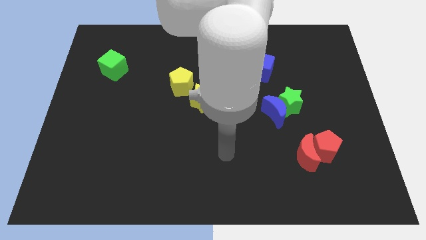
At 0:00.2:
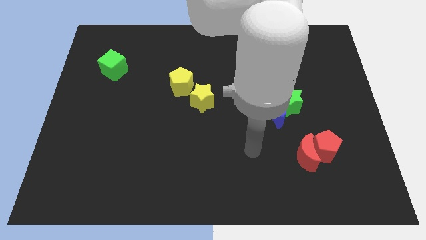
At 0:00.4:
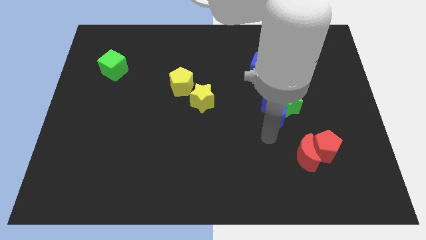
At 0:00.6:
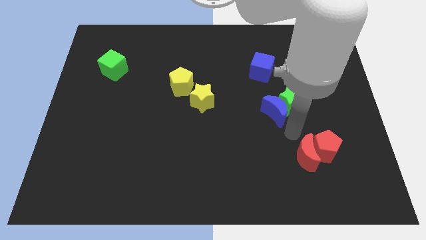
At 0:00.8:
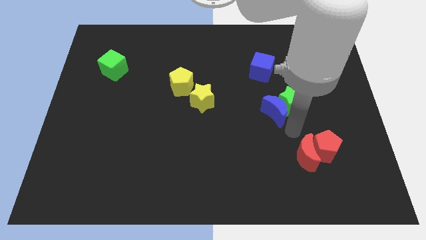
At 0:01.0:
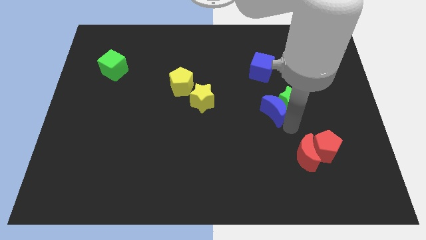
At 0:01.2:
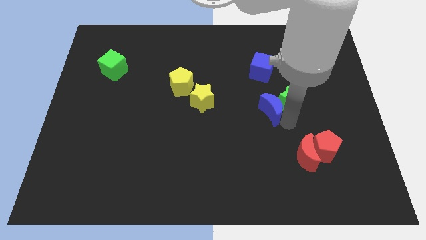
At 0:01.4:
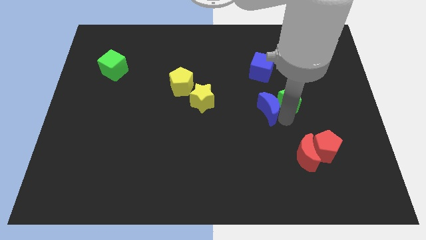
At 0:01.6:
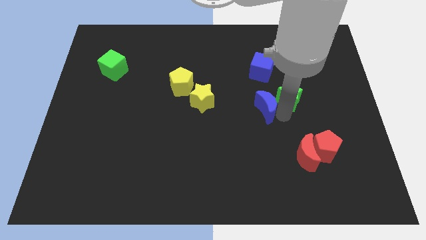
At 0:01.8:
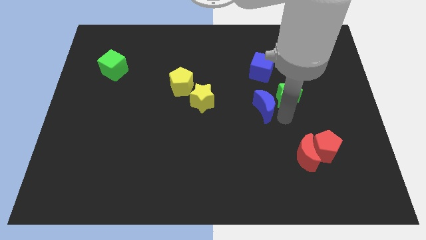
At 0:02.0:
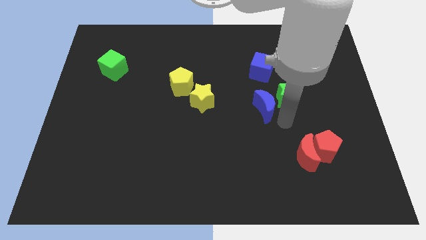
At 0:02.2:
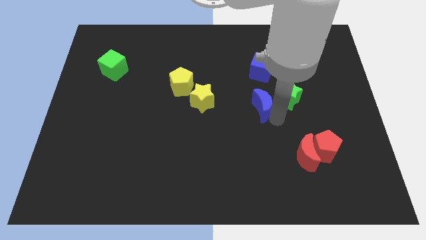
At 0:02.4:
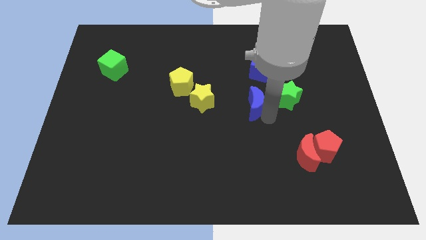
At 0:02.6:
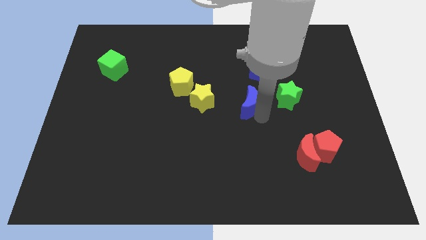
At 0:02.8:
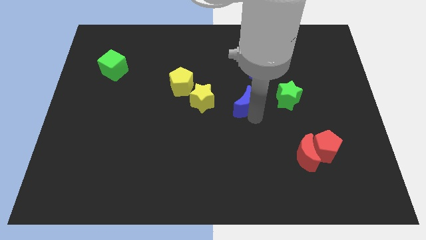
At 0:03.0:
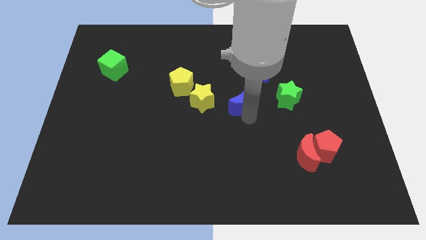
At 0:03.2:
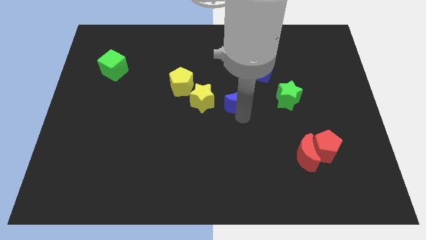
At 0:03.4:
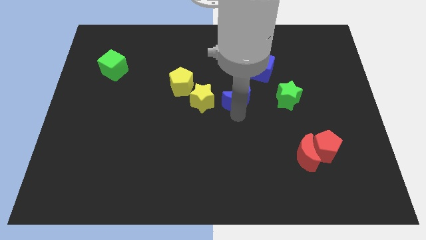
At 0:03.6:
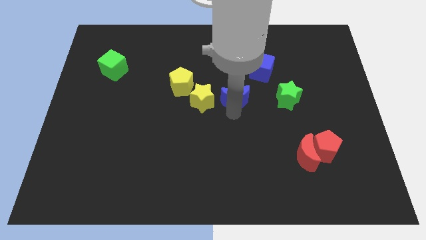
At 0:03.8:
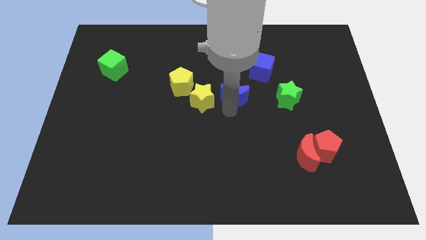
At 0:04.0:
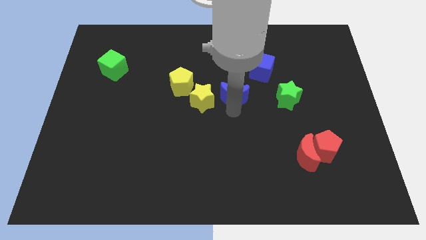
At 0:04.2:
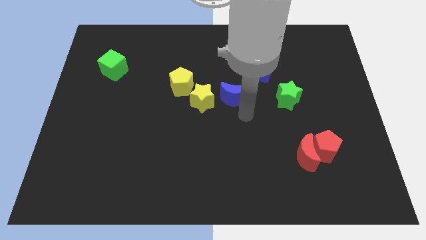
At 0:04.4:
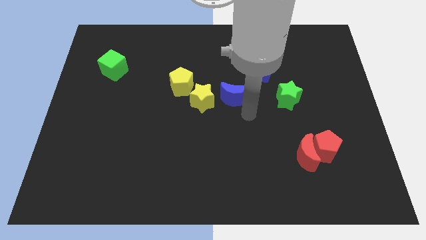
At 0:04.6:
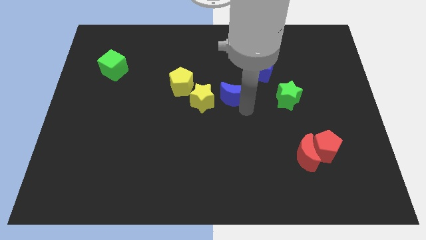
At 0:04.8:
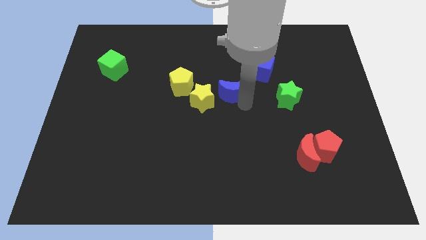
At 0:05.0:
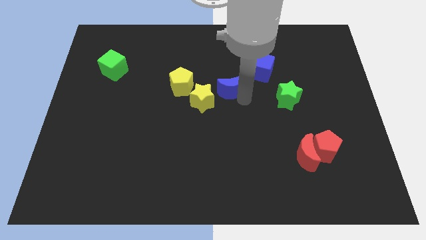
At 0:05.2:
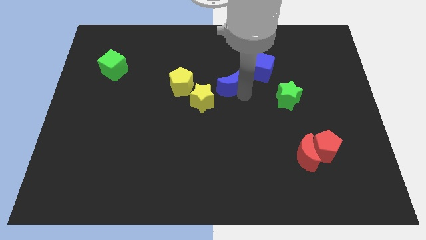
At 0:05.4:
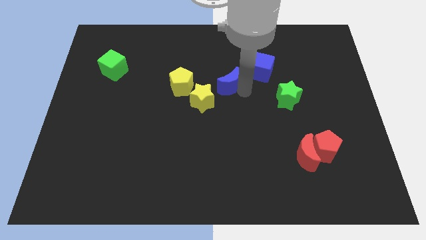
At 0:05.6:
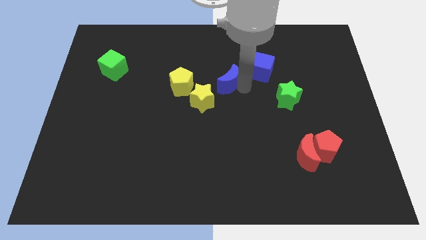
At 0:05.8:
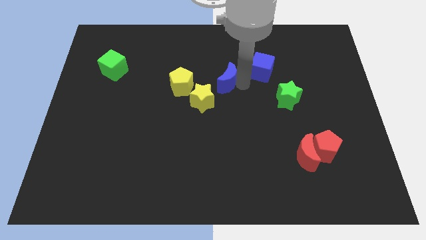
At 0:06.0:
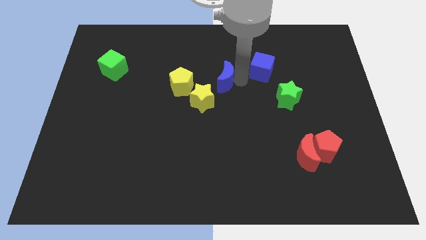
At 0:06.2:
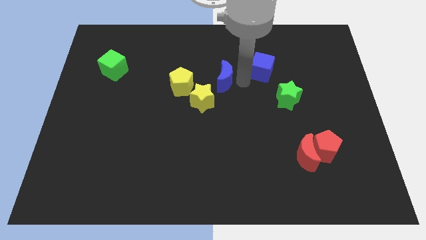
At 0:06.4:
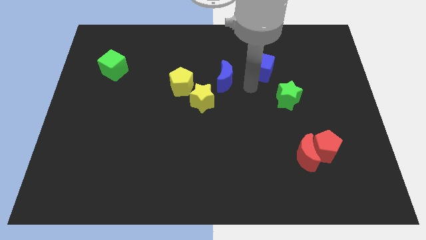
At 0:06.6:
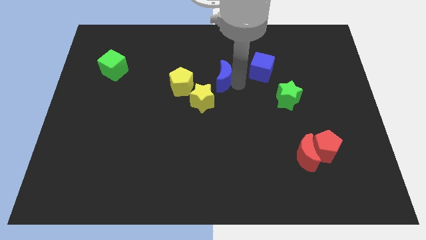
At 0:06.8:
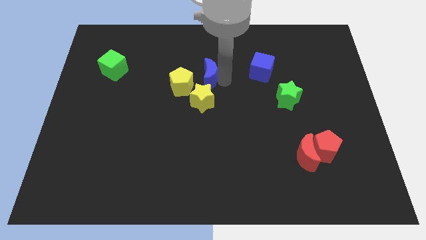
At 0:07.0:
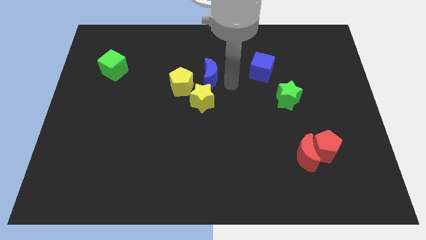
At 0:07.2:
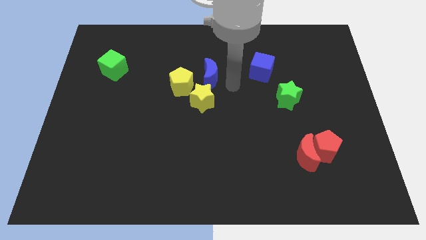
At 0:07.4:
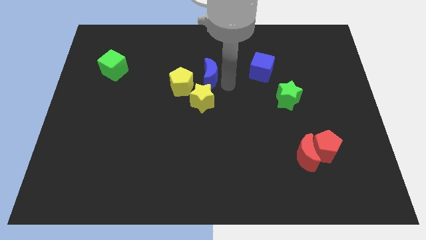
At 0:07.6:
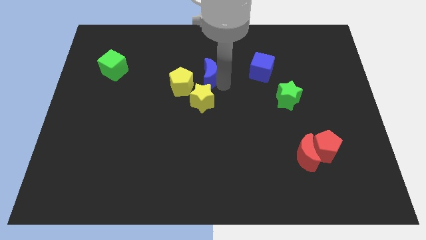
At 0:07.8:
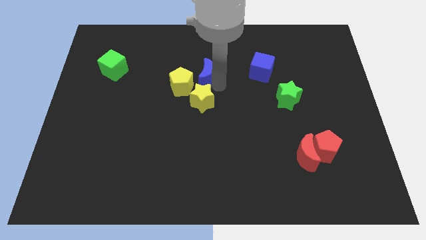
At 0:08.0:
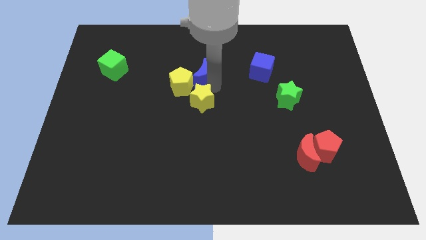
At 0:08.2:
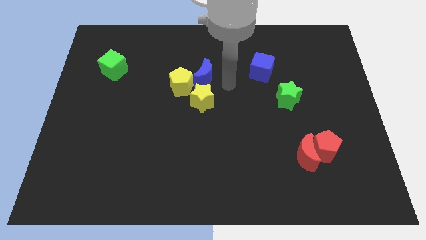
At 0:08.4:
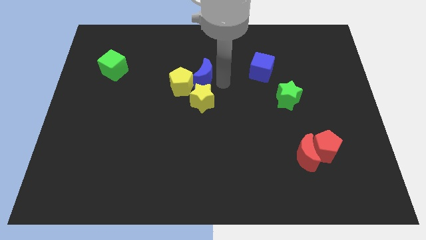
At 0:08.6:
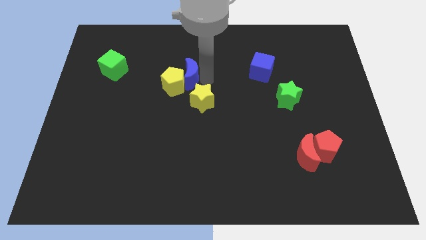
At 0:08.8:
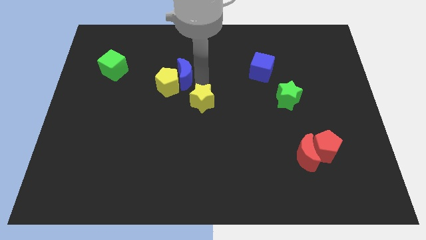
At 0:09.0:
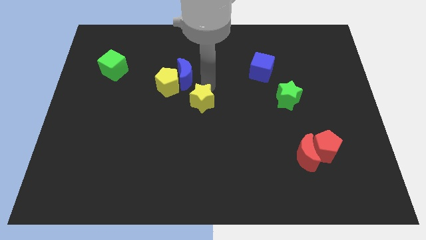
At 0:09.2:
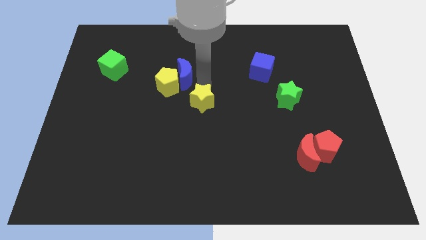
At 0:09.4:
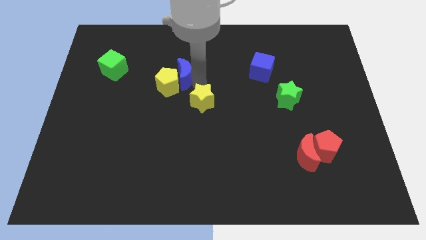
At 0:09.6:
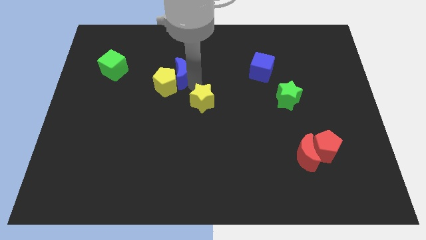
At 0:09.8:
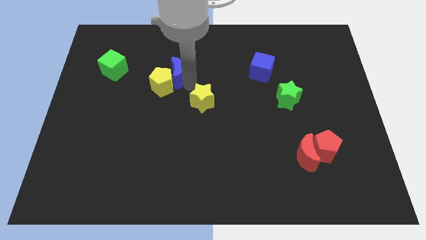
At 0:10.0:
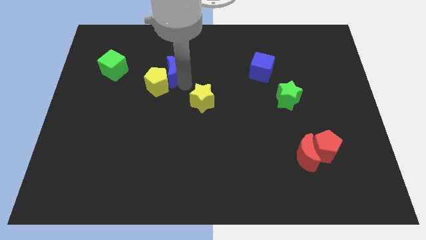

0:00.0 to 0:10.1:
slide the blue moon to the right side of the green cube

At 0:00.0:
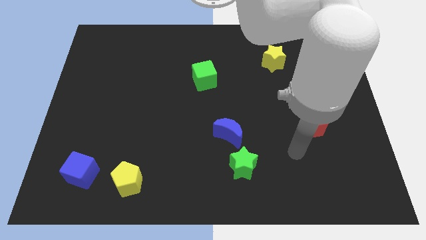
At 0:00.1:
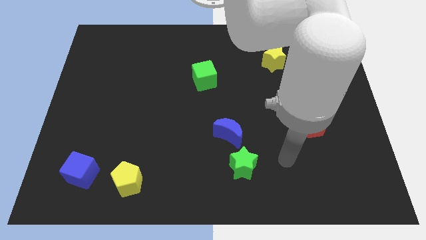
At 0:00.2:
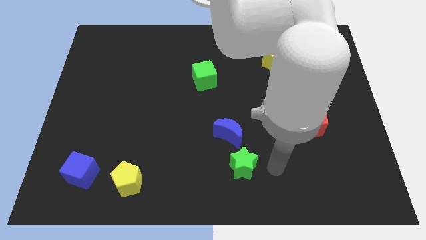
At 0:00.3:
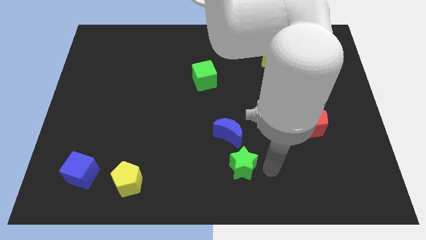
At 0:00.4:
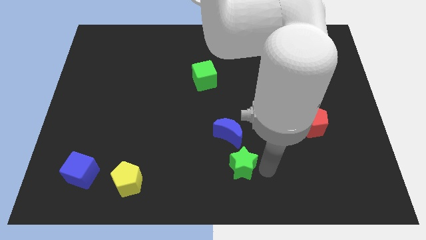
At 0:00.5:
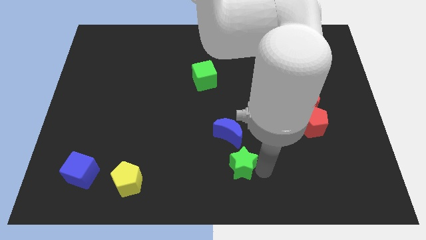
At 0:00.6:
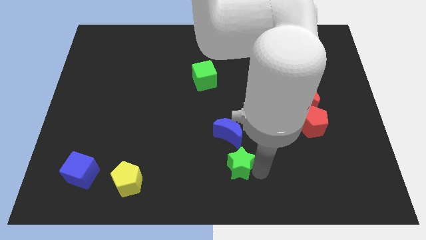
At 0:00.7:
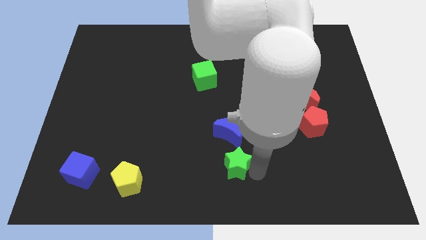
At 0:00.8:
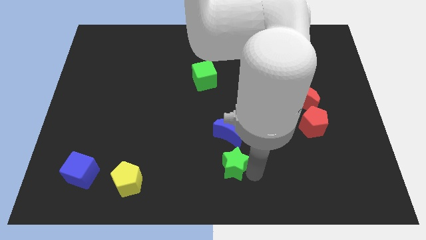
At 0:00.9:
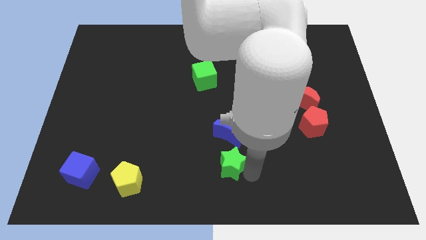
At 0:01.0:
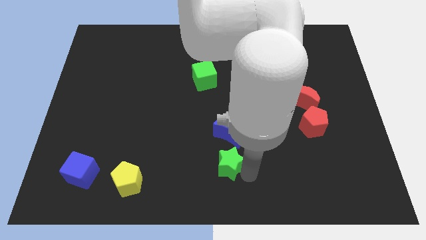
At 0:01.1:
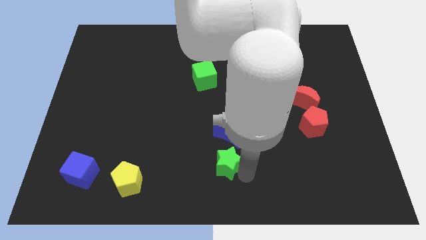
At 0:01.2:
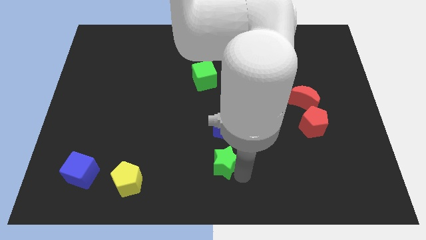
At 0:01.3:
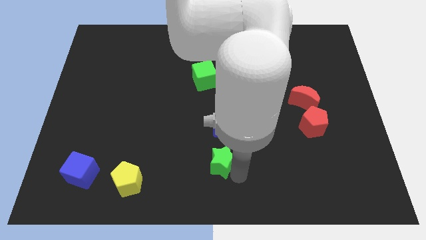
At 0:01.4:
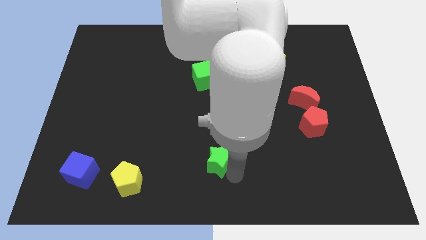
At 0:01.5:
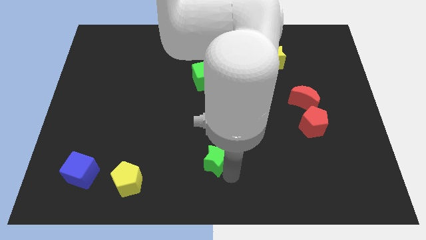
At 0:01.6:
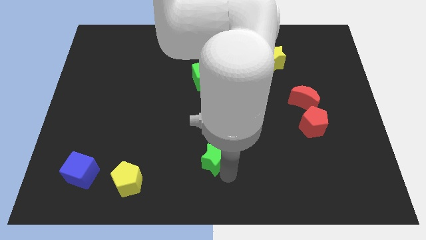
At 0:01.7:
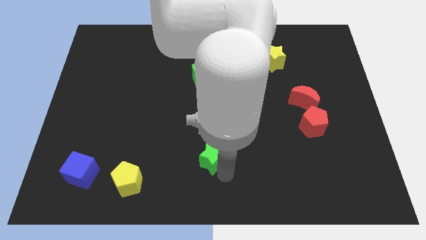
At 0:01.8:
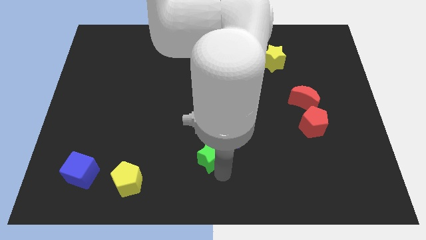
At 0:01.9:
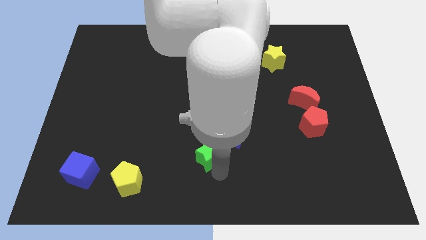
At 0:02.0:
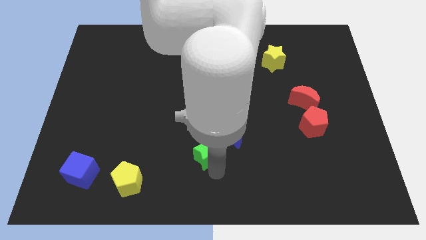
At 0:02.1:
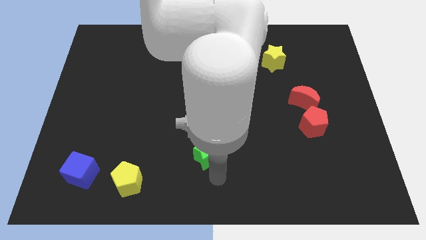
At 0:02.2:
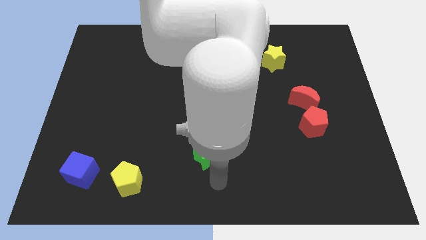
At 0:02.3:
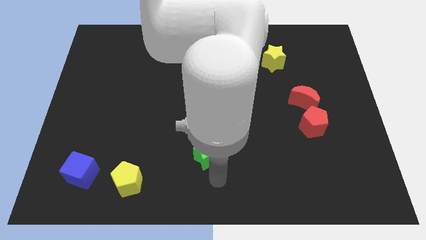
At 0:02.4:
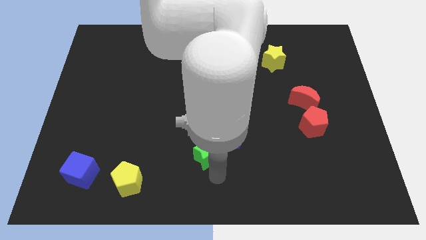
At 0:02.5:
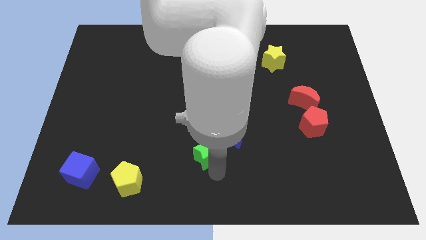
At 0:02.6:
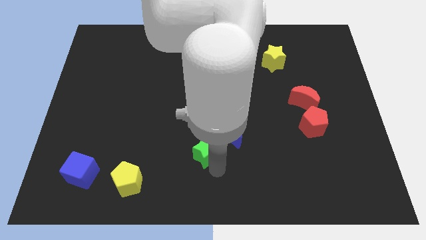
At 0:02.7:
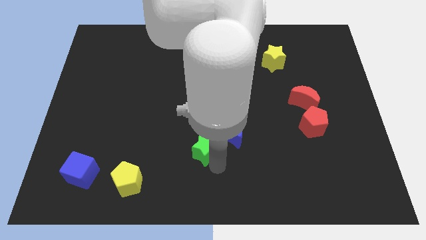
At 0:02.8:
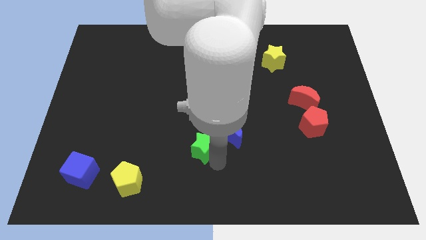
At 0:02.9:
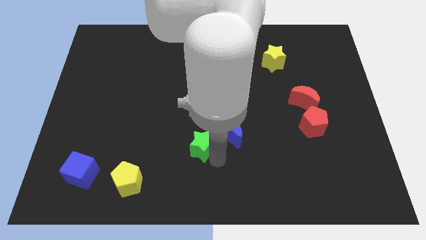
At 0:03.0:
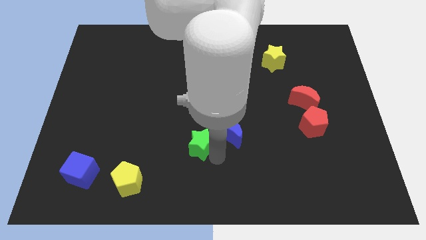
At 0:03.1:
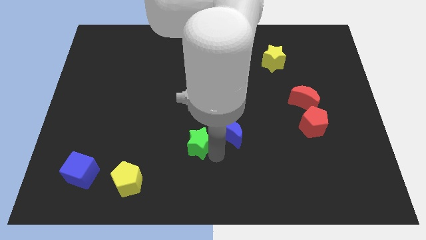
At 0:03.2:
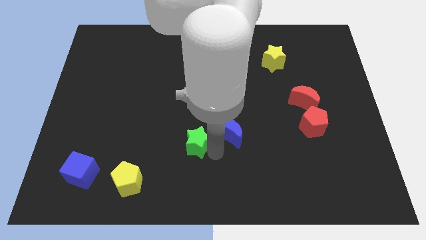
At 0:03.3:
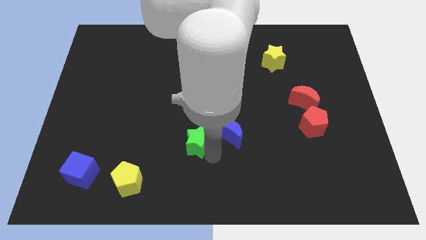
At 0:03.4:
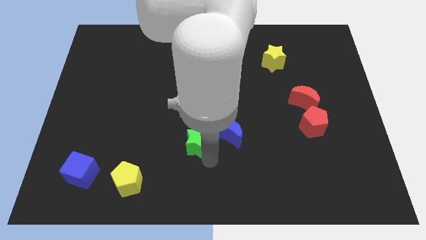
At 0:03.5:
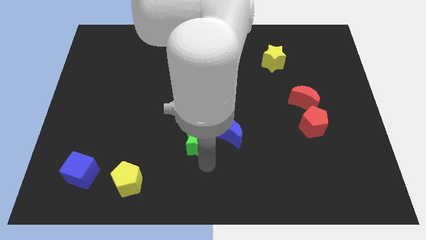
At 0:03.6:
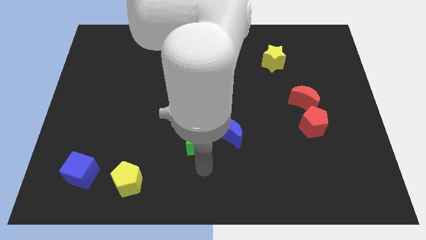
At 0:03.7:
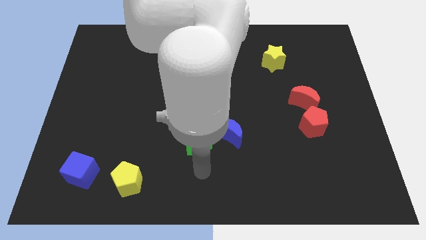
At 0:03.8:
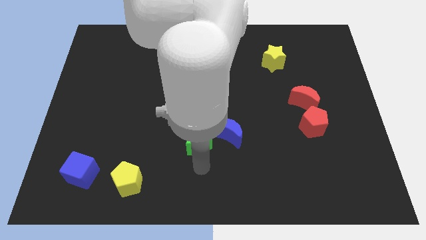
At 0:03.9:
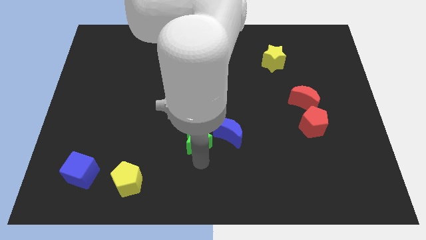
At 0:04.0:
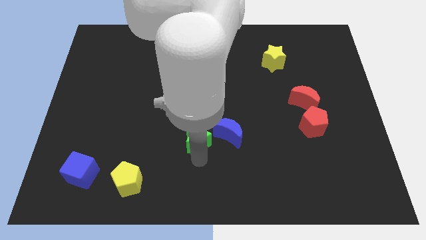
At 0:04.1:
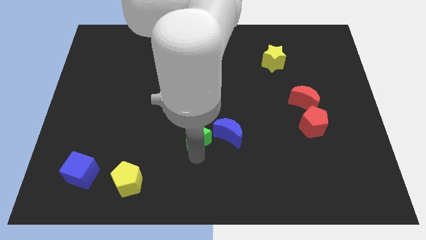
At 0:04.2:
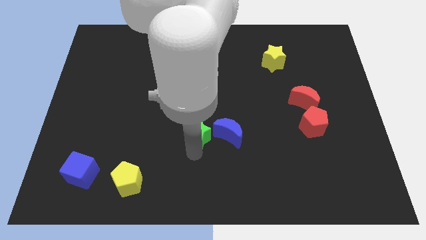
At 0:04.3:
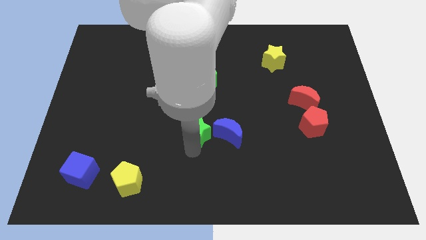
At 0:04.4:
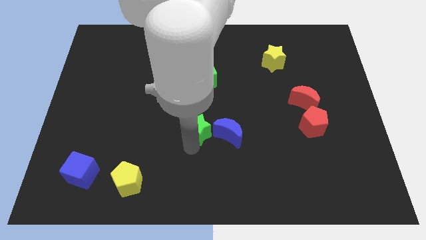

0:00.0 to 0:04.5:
move the green star to the bottom of the green cube
